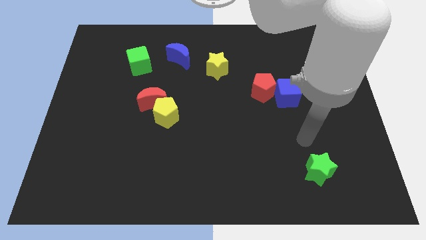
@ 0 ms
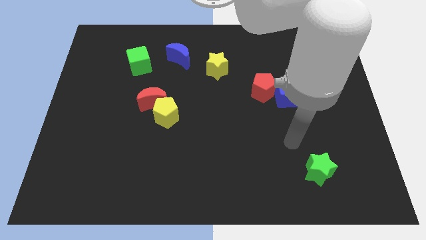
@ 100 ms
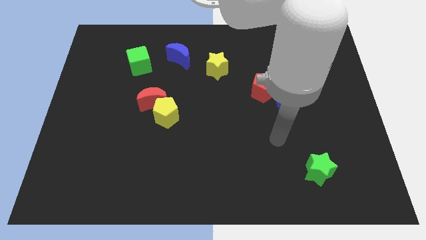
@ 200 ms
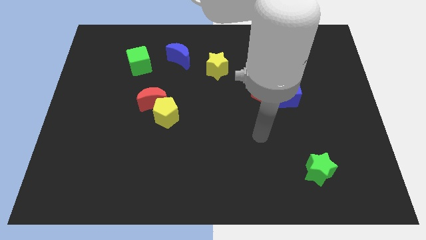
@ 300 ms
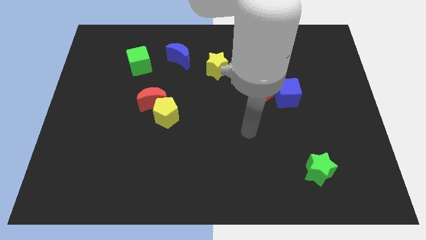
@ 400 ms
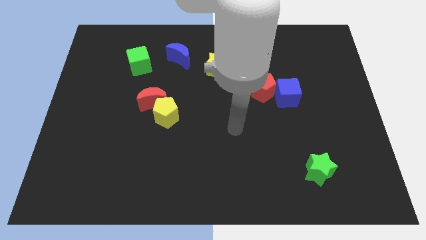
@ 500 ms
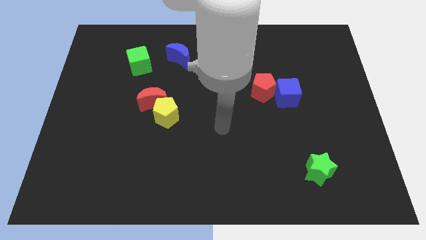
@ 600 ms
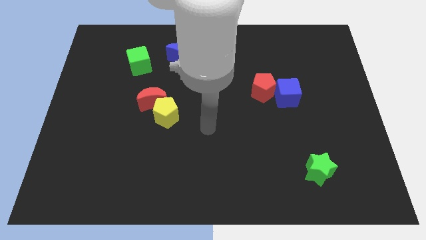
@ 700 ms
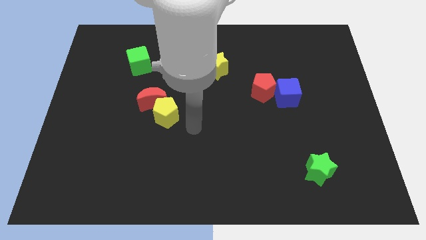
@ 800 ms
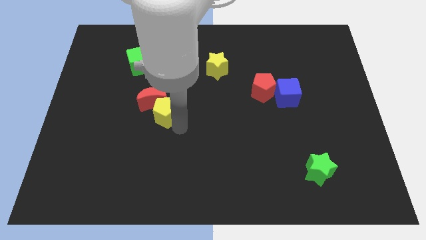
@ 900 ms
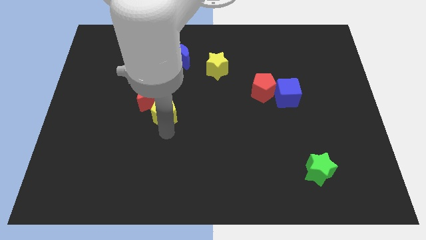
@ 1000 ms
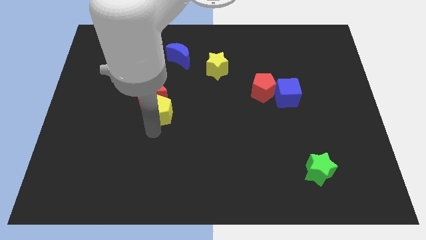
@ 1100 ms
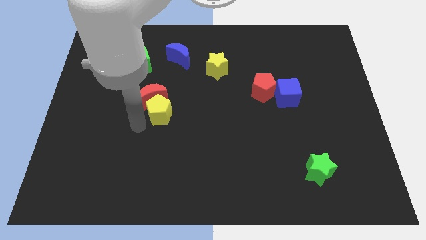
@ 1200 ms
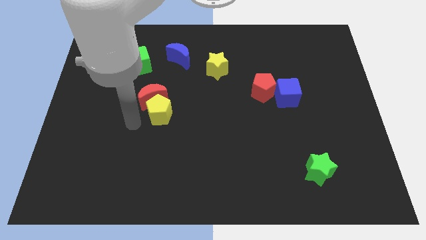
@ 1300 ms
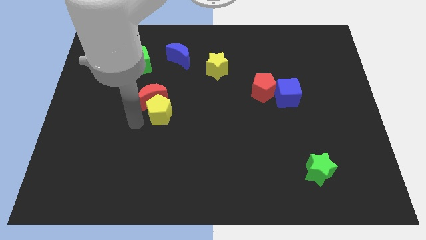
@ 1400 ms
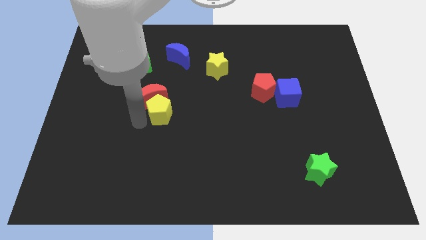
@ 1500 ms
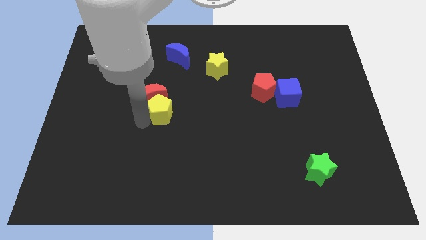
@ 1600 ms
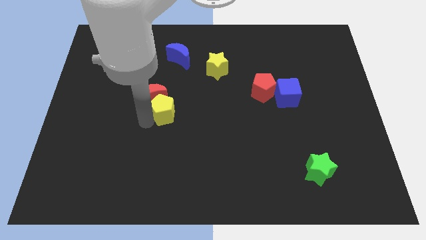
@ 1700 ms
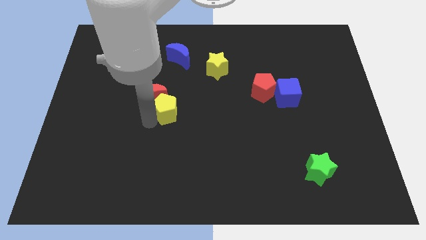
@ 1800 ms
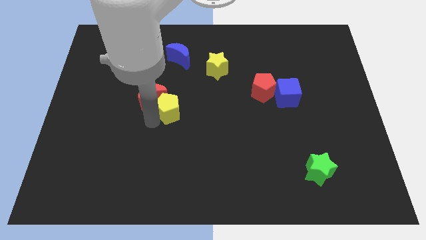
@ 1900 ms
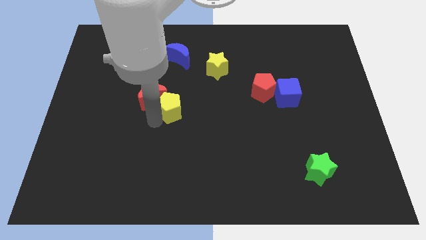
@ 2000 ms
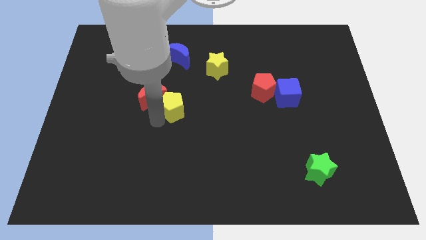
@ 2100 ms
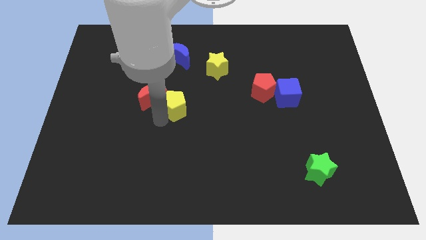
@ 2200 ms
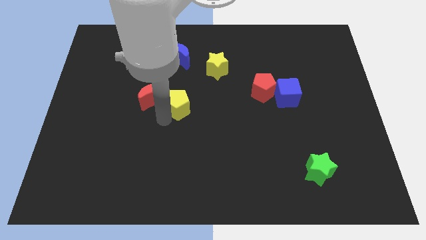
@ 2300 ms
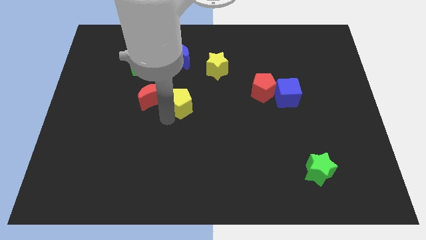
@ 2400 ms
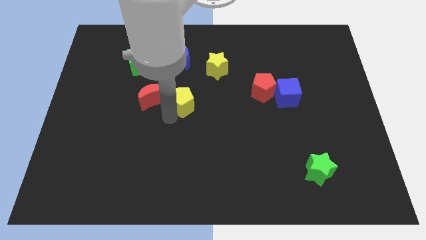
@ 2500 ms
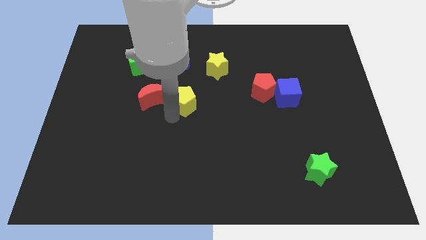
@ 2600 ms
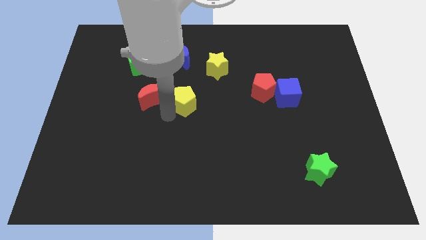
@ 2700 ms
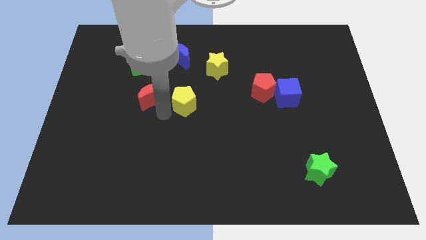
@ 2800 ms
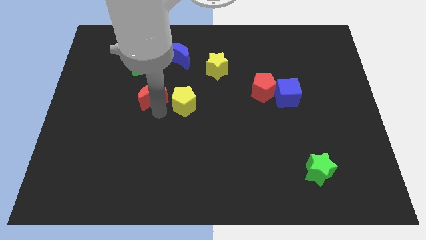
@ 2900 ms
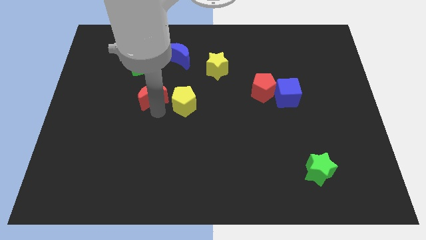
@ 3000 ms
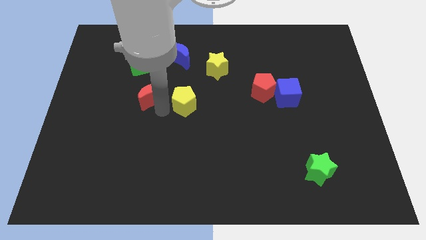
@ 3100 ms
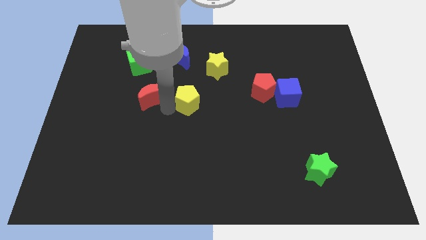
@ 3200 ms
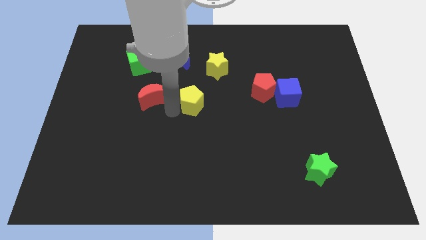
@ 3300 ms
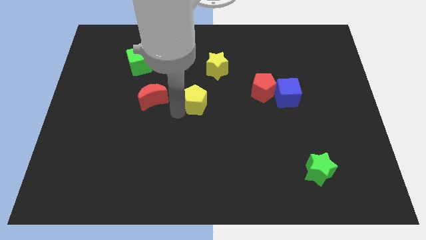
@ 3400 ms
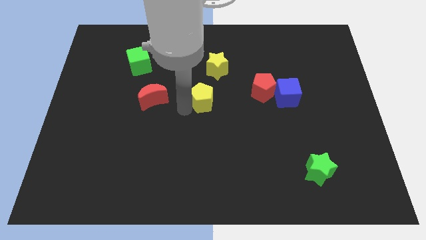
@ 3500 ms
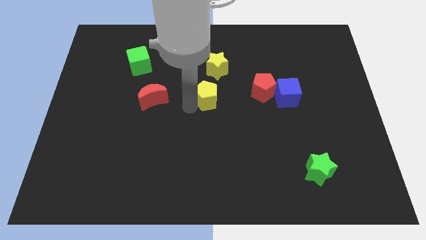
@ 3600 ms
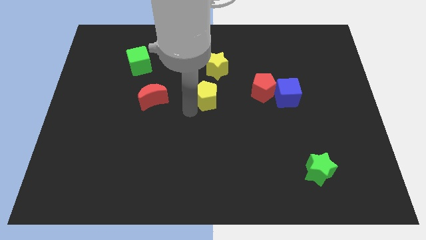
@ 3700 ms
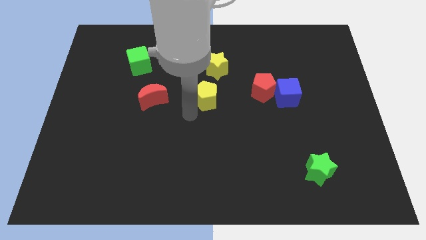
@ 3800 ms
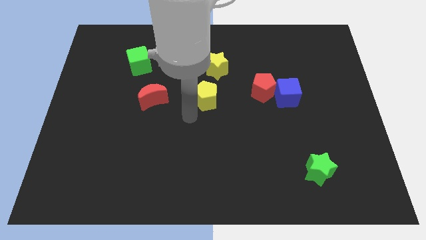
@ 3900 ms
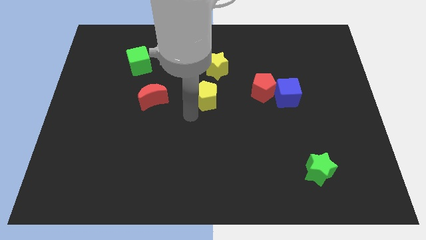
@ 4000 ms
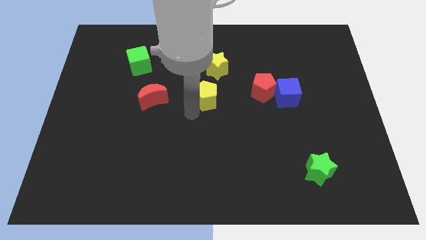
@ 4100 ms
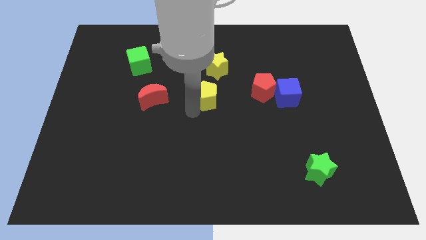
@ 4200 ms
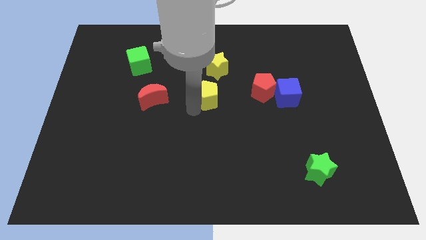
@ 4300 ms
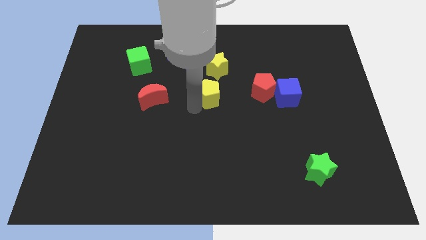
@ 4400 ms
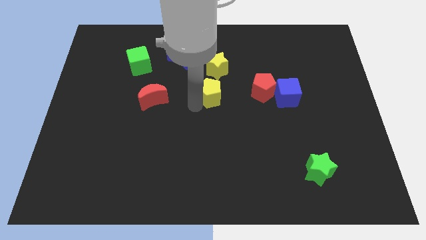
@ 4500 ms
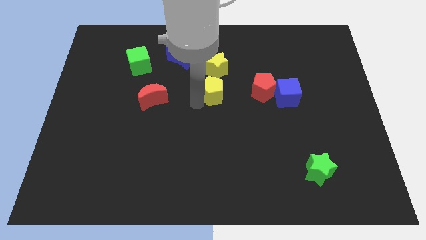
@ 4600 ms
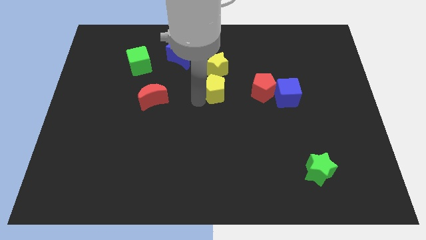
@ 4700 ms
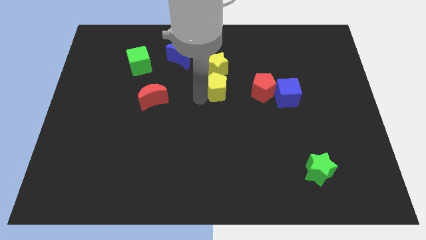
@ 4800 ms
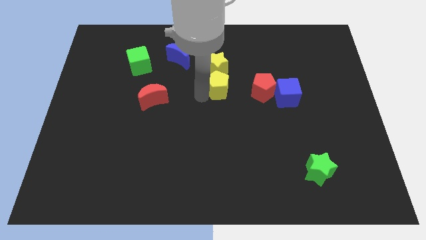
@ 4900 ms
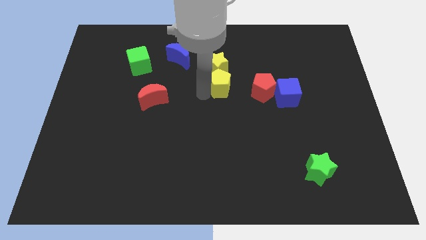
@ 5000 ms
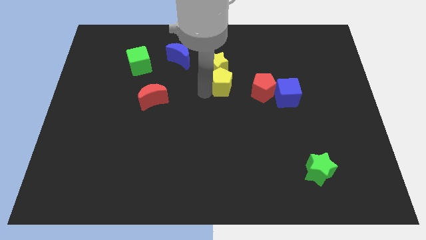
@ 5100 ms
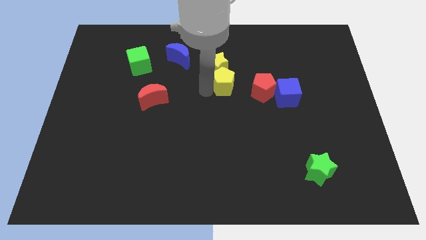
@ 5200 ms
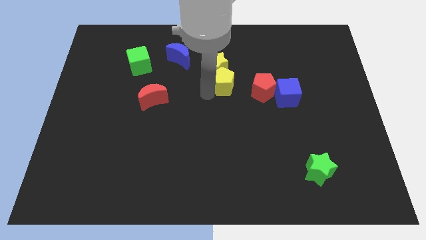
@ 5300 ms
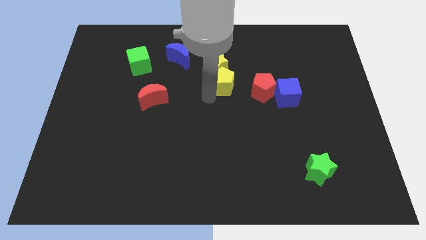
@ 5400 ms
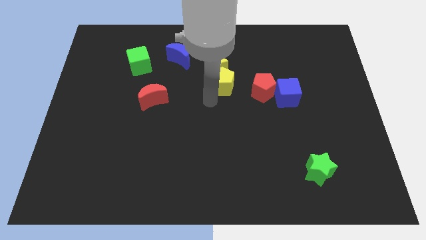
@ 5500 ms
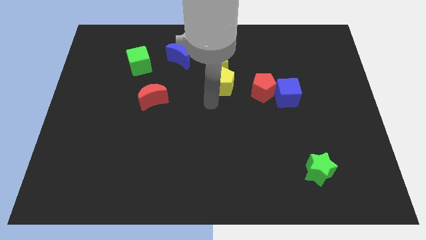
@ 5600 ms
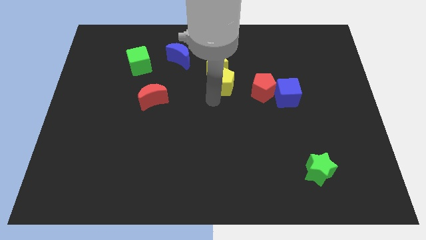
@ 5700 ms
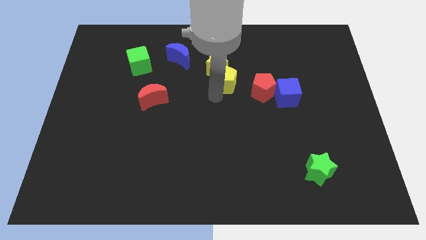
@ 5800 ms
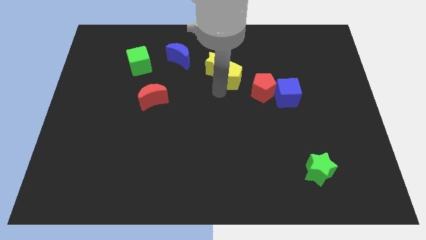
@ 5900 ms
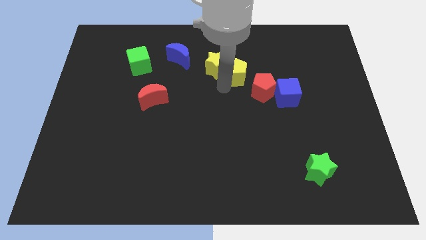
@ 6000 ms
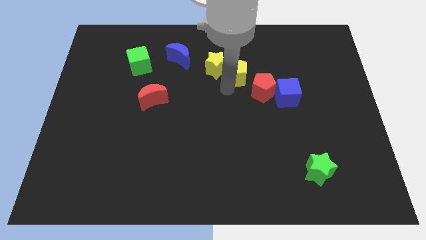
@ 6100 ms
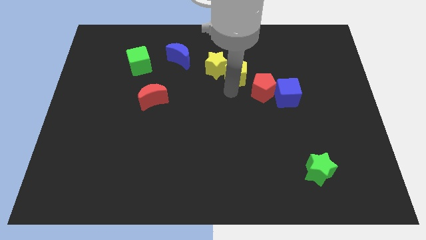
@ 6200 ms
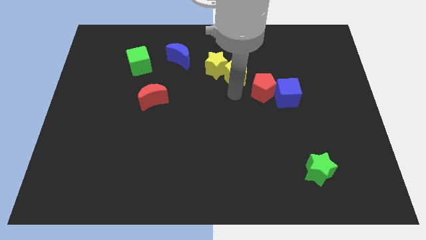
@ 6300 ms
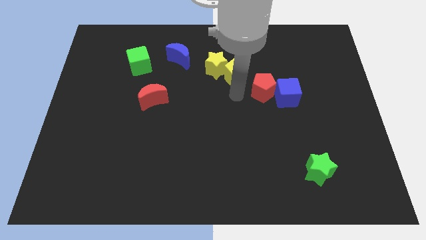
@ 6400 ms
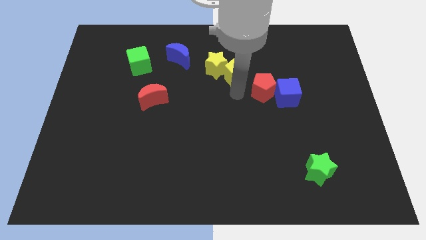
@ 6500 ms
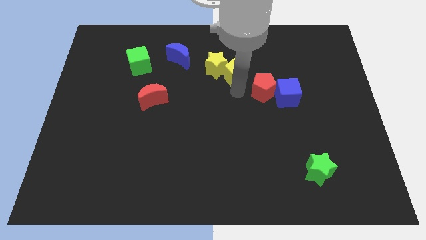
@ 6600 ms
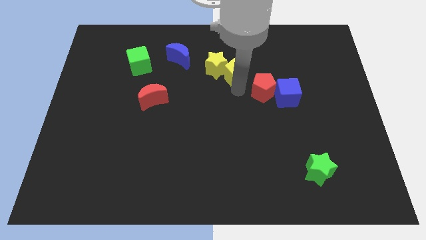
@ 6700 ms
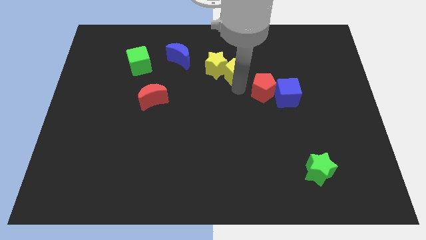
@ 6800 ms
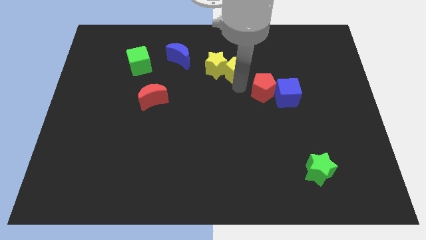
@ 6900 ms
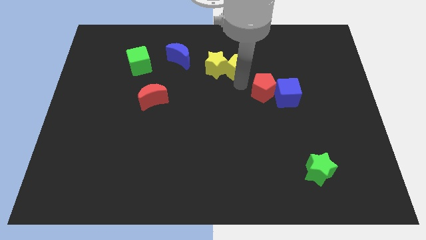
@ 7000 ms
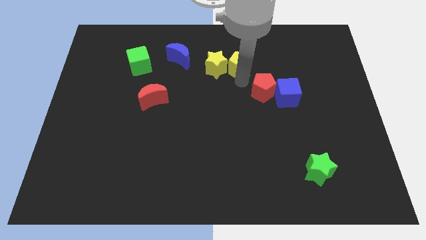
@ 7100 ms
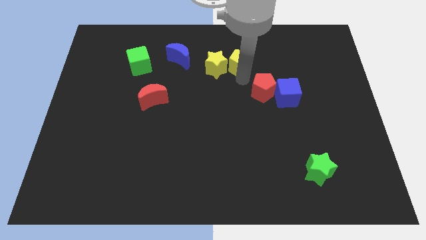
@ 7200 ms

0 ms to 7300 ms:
put the yellow pentagon to the right of the blue moon
